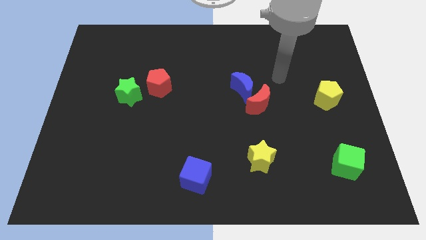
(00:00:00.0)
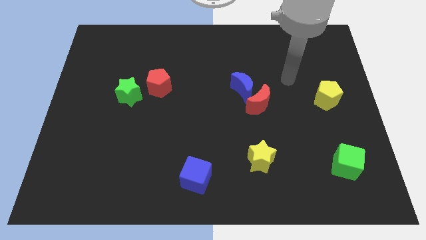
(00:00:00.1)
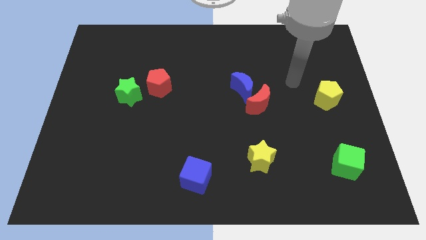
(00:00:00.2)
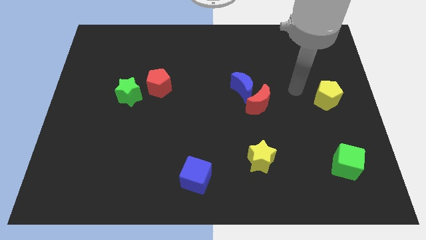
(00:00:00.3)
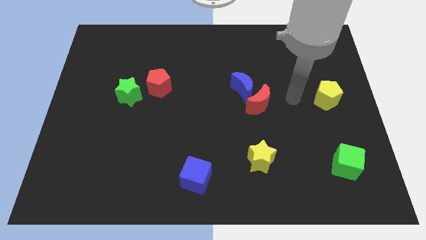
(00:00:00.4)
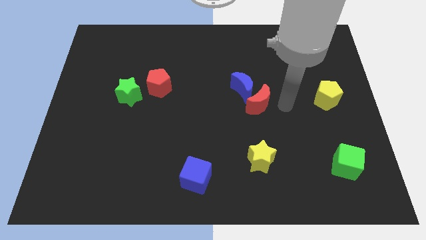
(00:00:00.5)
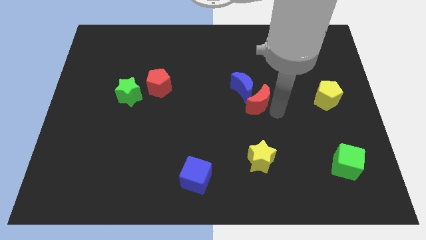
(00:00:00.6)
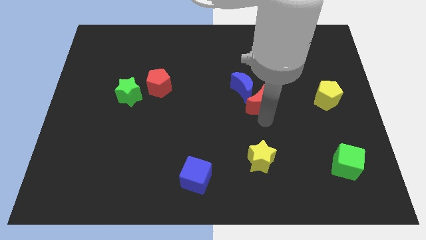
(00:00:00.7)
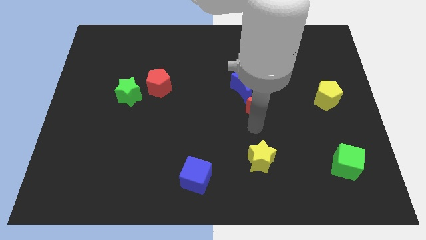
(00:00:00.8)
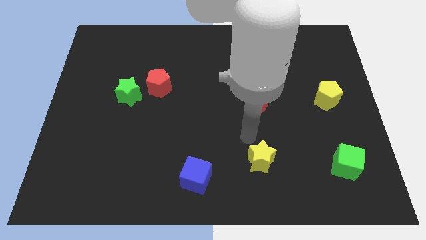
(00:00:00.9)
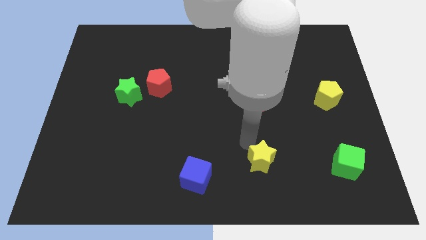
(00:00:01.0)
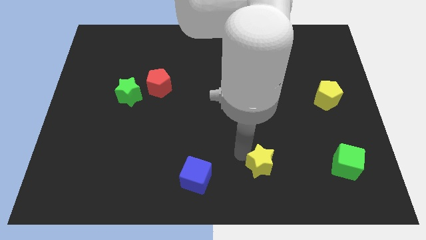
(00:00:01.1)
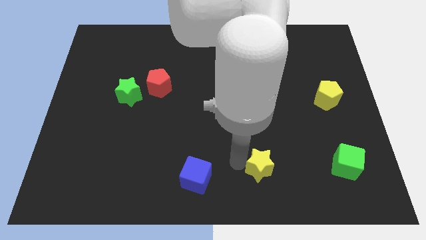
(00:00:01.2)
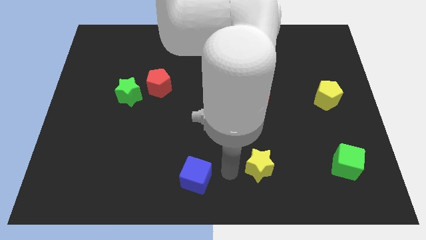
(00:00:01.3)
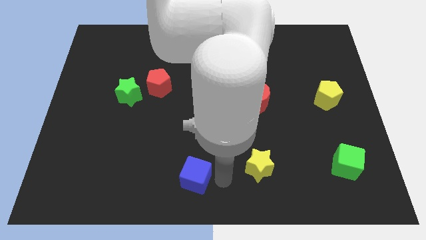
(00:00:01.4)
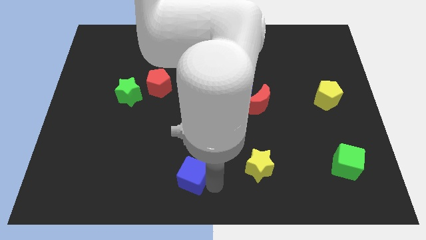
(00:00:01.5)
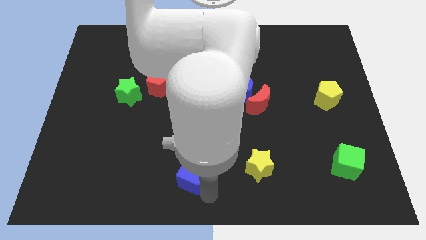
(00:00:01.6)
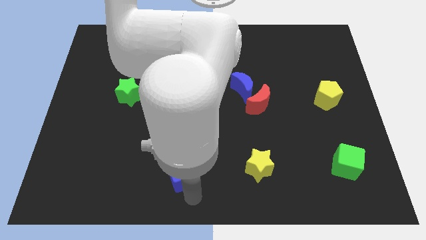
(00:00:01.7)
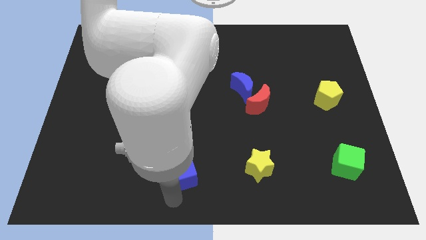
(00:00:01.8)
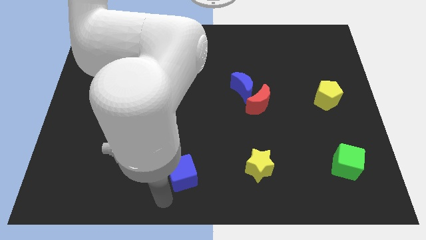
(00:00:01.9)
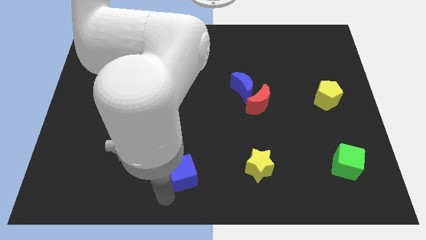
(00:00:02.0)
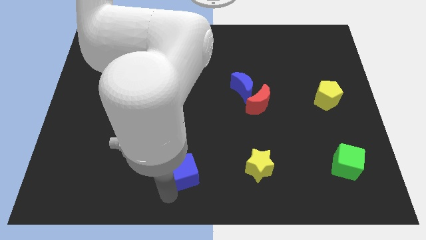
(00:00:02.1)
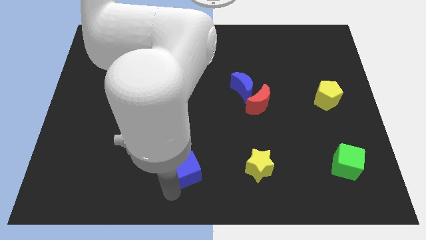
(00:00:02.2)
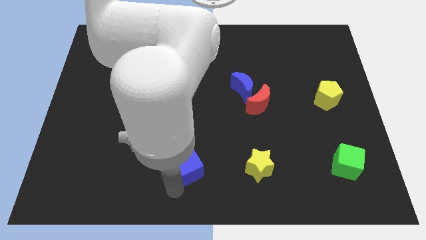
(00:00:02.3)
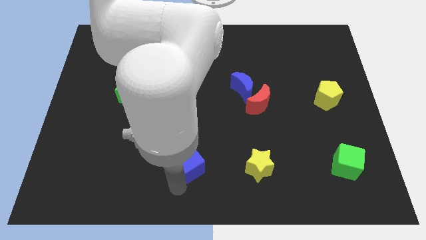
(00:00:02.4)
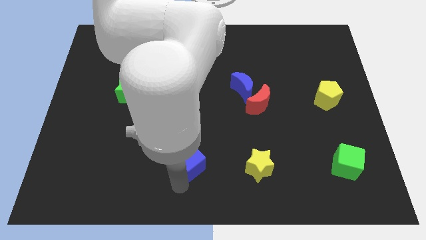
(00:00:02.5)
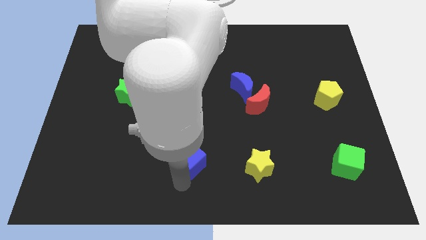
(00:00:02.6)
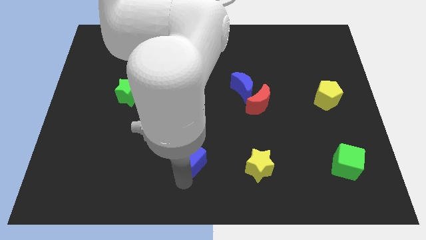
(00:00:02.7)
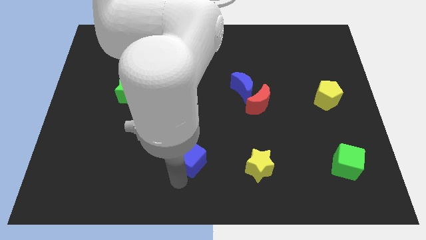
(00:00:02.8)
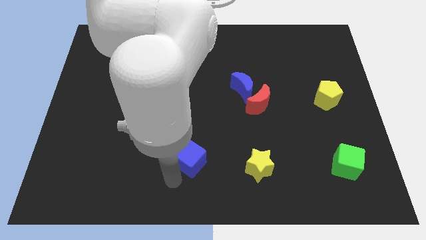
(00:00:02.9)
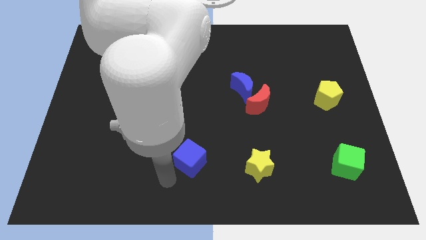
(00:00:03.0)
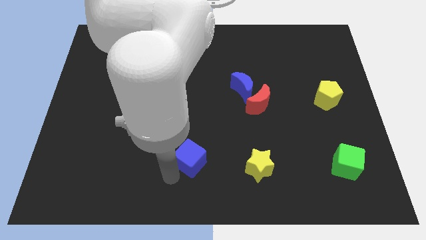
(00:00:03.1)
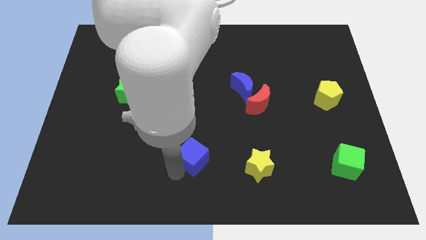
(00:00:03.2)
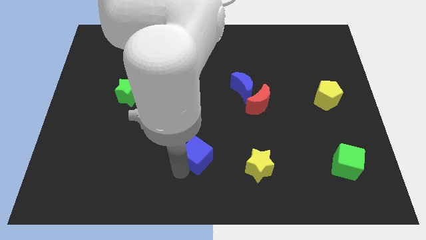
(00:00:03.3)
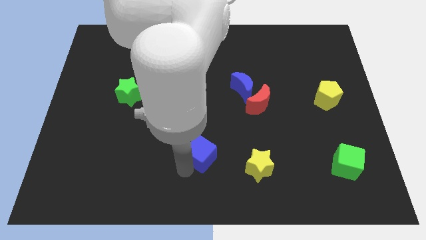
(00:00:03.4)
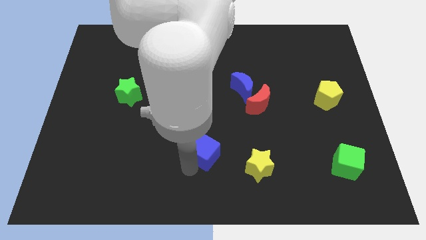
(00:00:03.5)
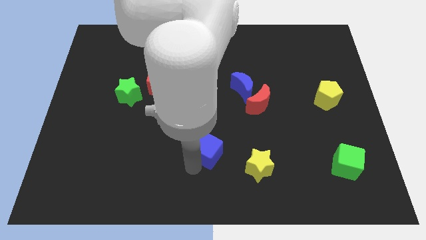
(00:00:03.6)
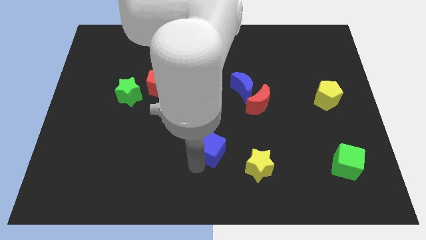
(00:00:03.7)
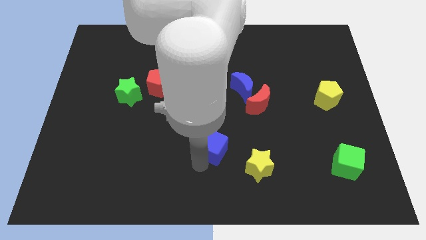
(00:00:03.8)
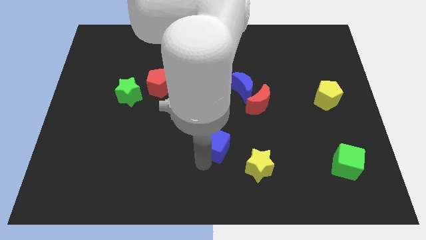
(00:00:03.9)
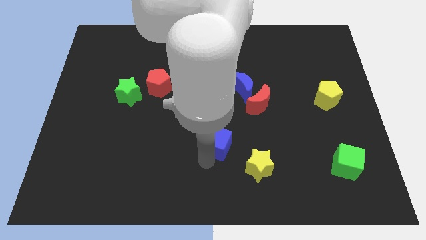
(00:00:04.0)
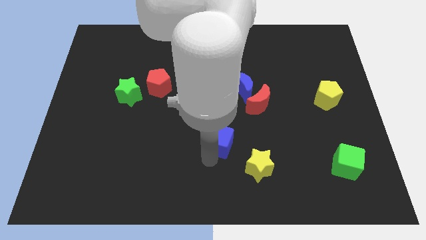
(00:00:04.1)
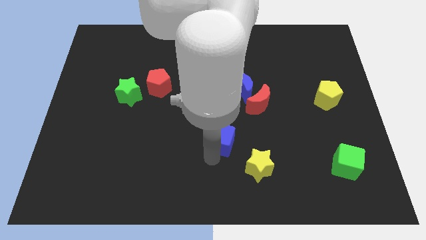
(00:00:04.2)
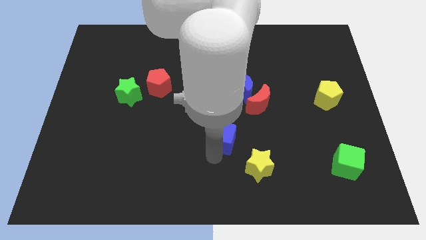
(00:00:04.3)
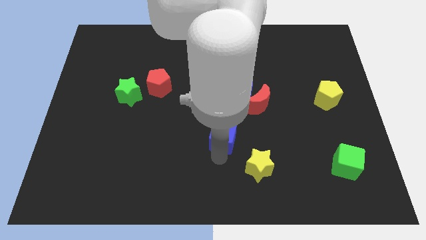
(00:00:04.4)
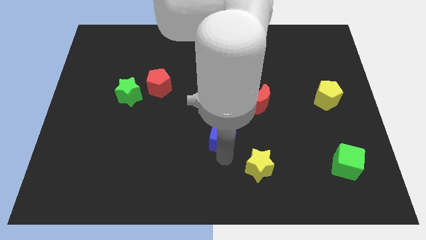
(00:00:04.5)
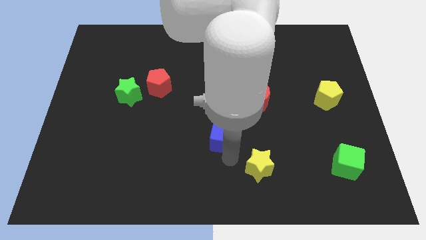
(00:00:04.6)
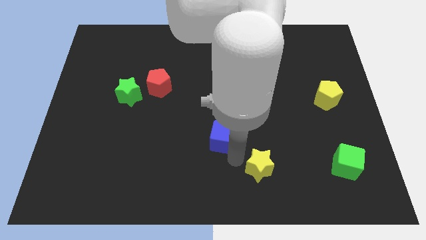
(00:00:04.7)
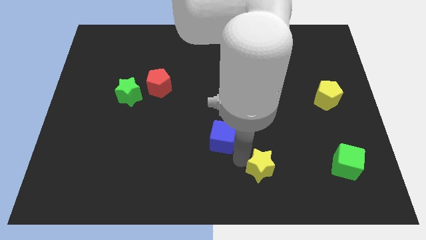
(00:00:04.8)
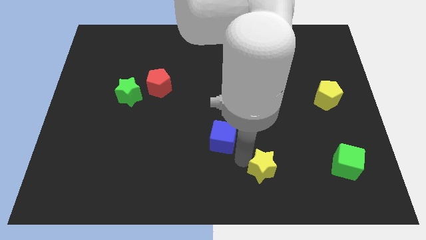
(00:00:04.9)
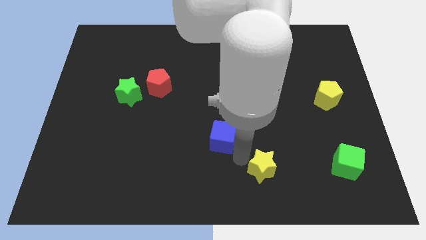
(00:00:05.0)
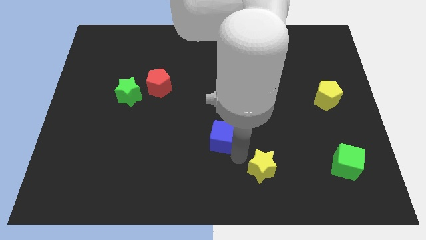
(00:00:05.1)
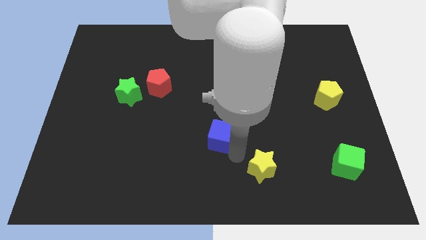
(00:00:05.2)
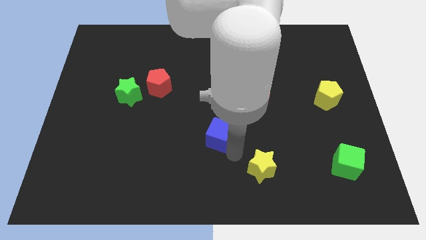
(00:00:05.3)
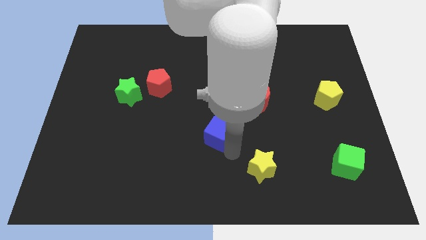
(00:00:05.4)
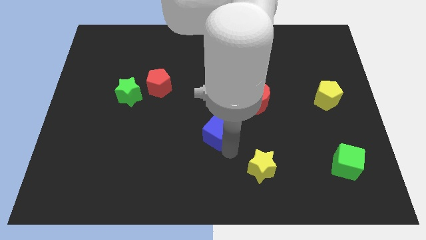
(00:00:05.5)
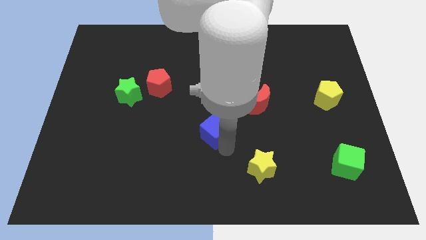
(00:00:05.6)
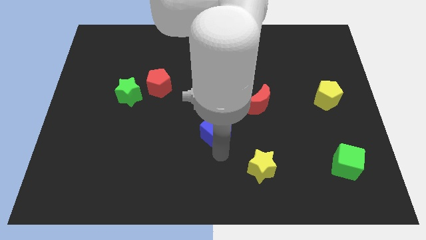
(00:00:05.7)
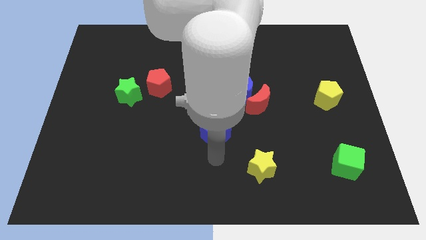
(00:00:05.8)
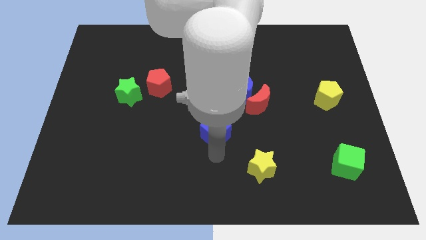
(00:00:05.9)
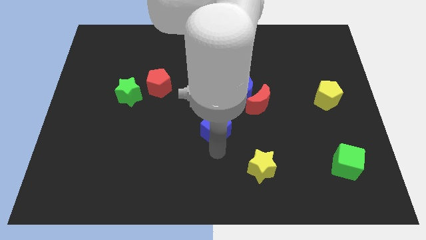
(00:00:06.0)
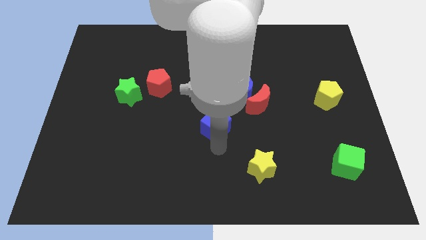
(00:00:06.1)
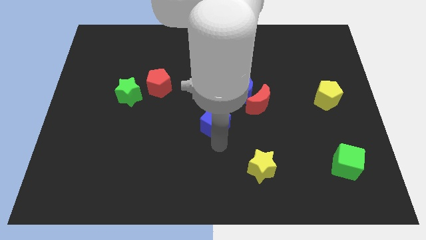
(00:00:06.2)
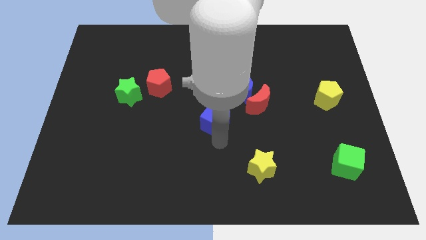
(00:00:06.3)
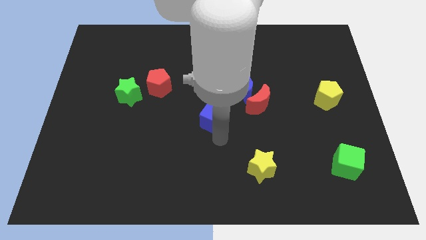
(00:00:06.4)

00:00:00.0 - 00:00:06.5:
slide the blue cube left of the red moon
